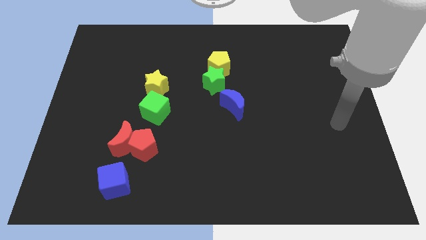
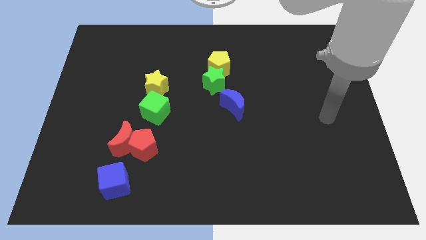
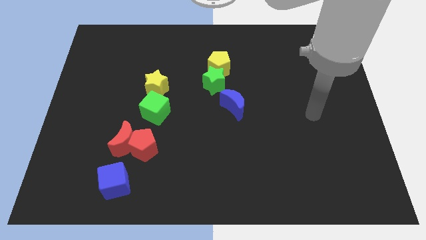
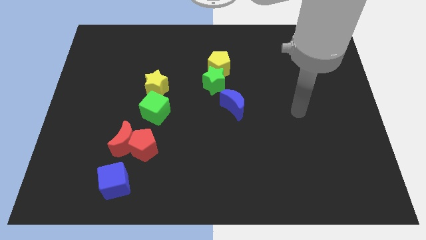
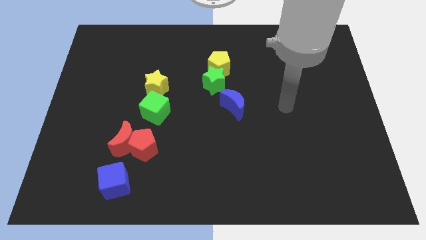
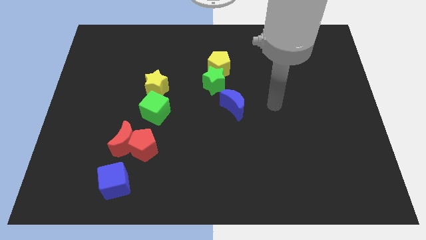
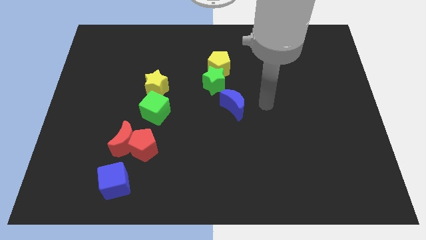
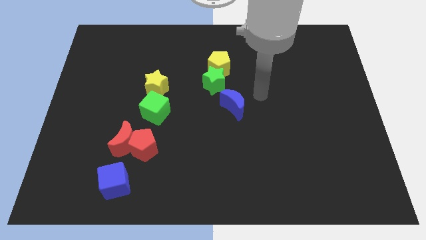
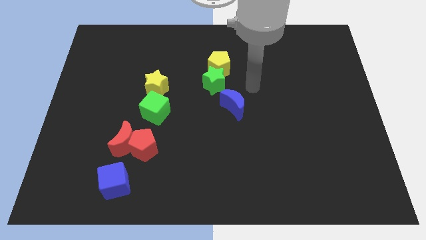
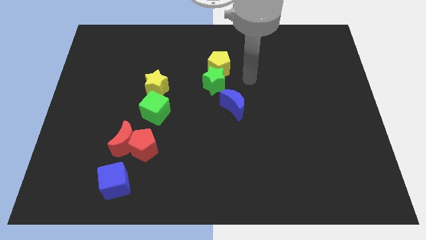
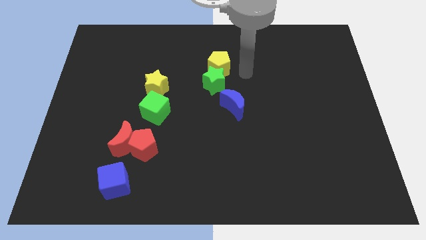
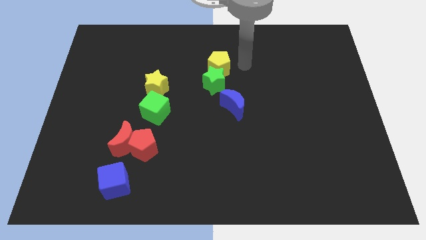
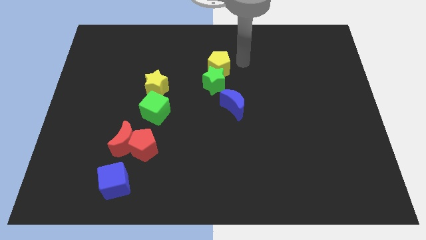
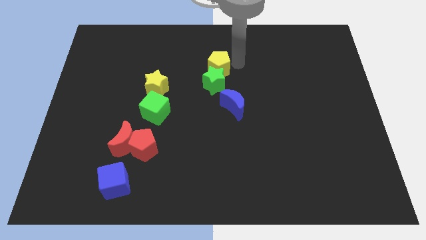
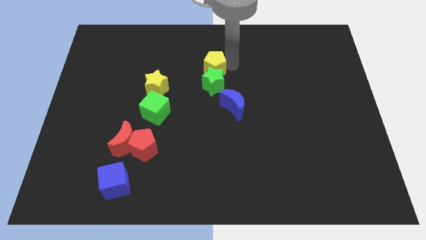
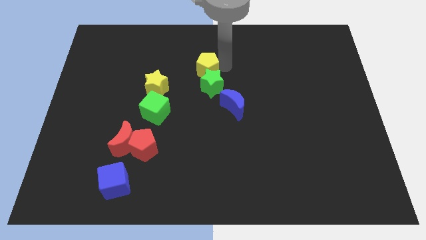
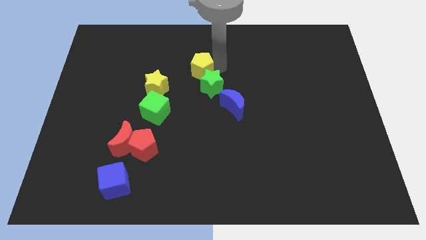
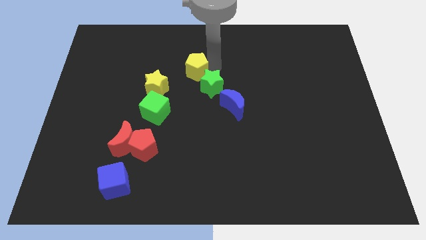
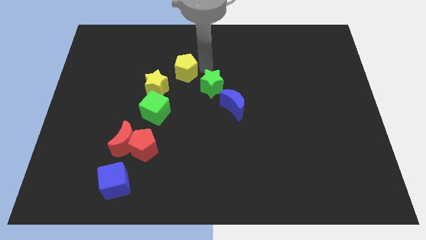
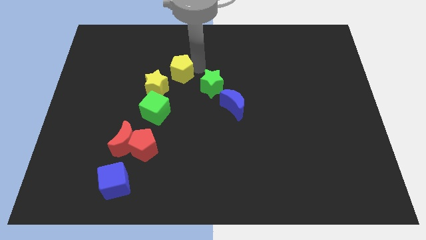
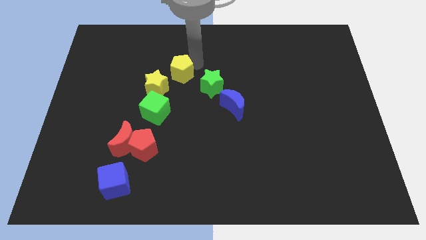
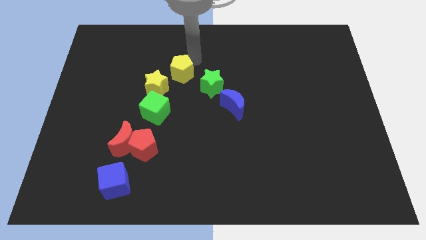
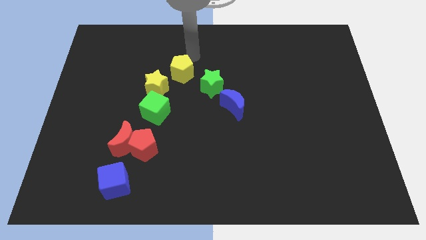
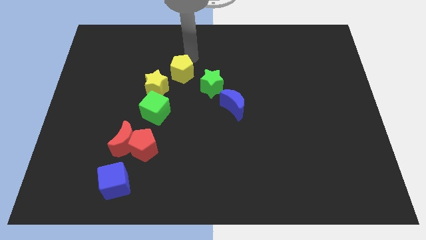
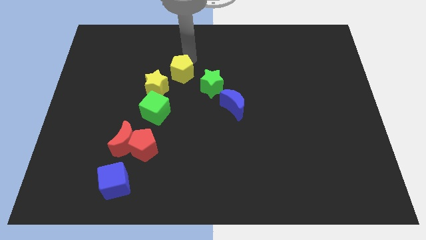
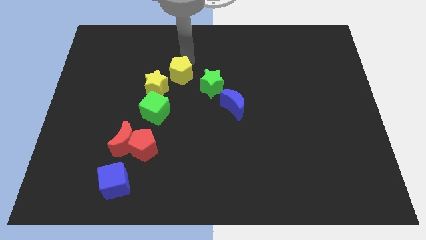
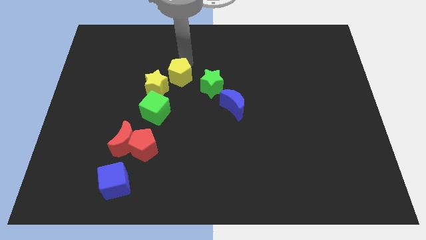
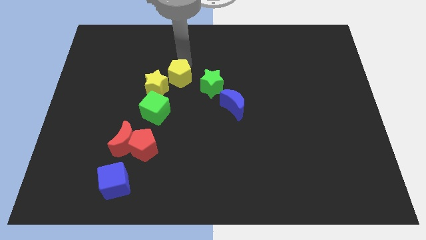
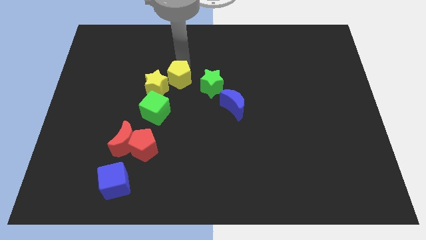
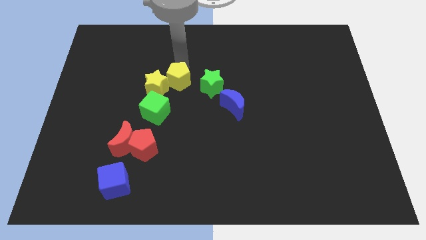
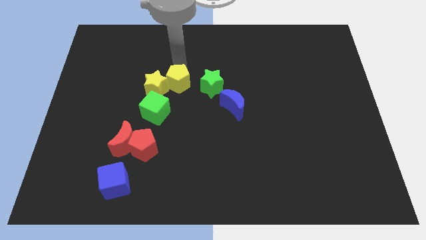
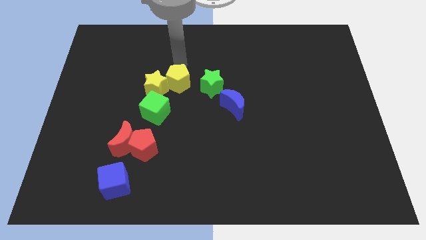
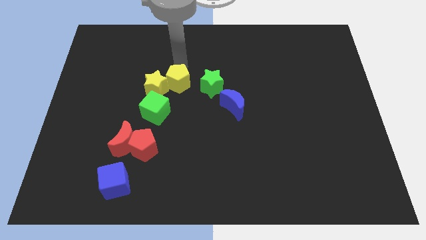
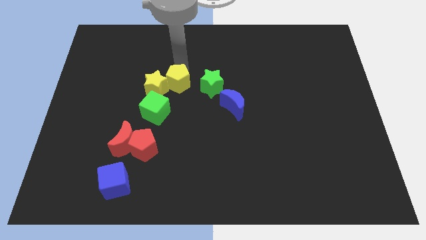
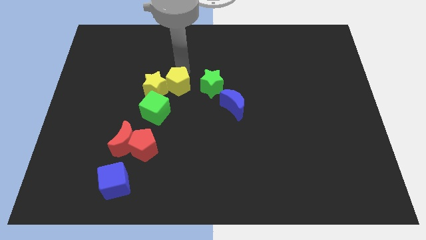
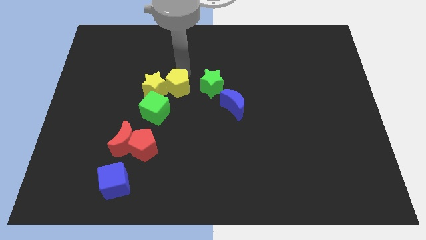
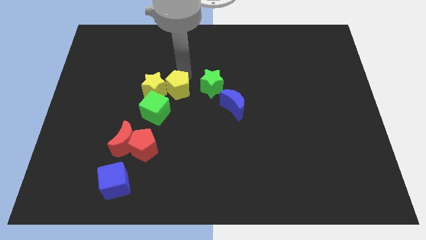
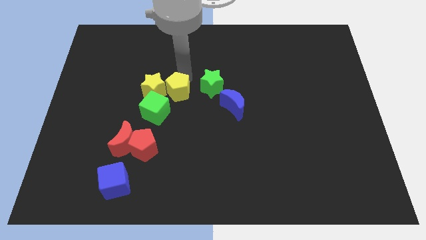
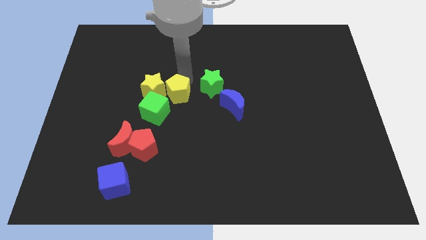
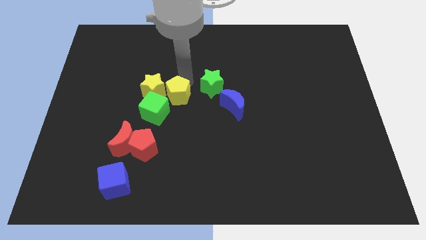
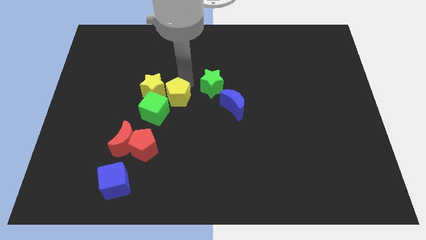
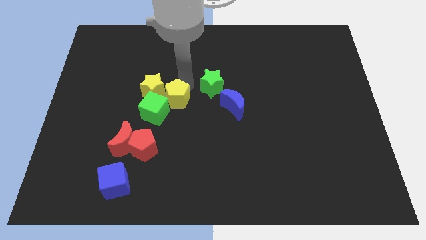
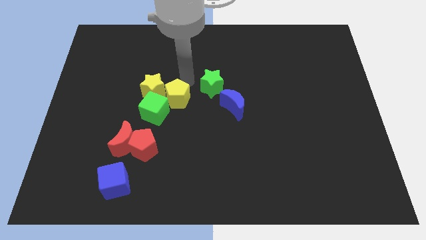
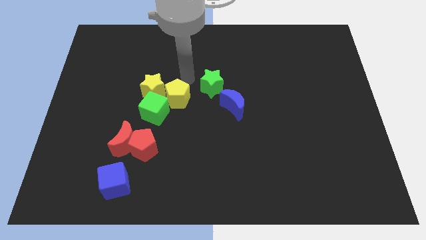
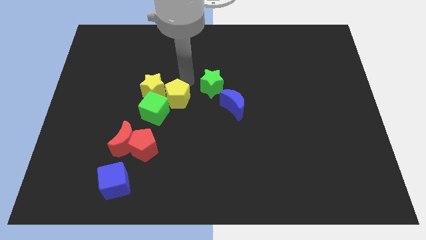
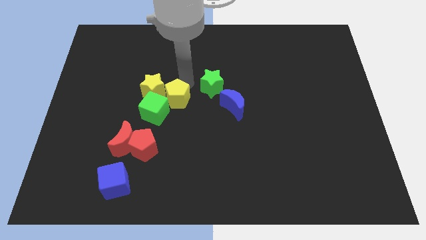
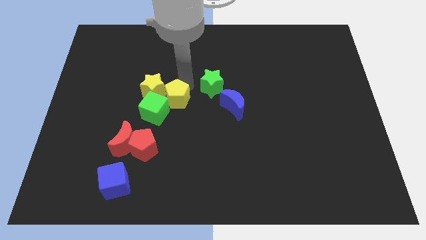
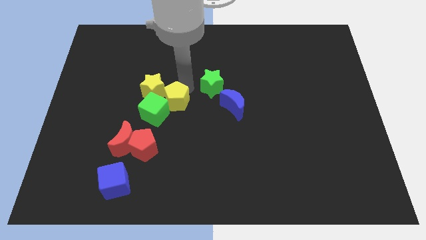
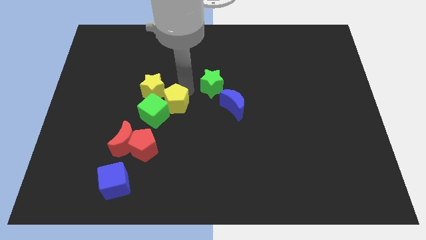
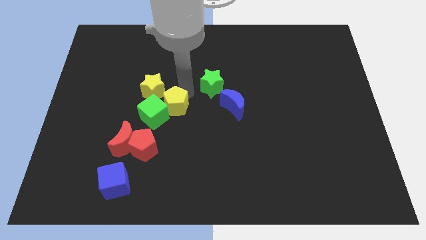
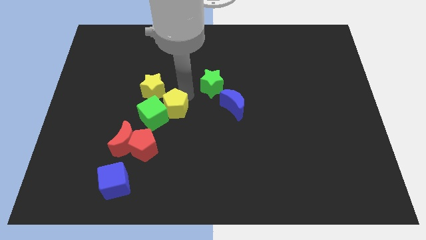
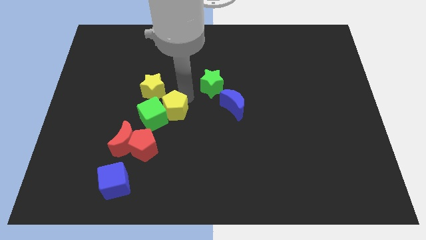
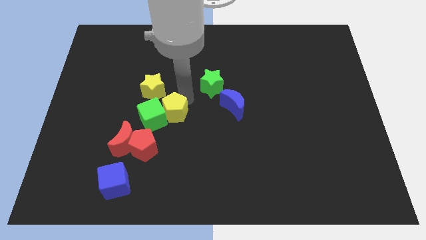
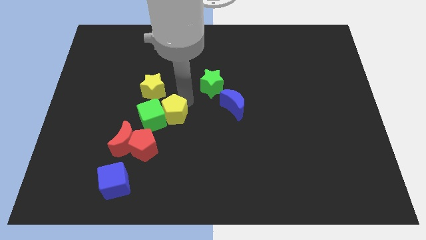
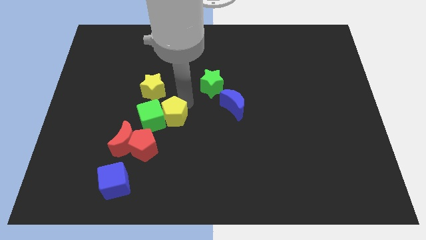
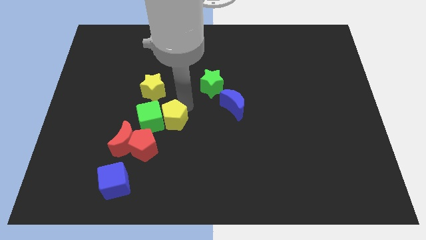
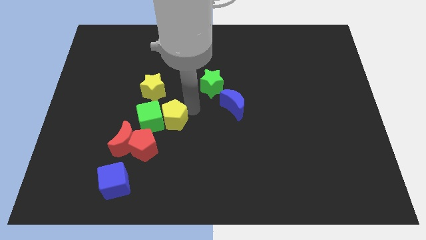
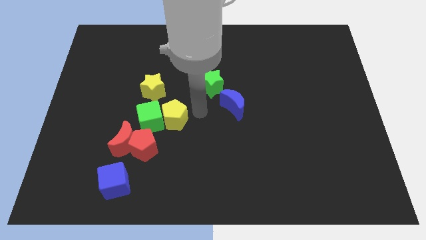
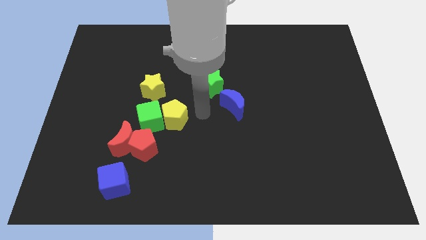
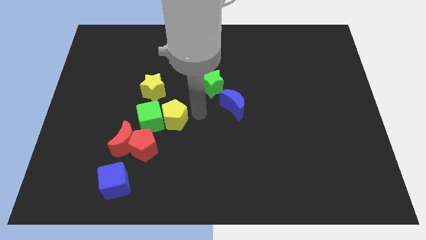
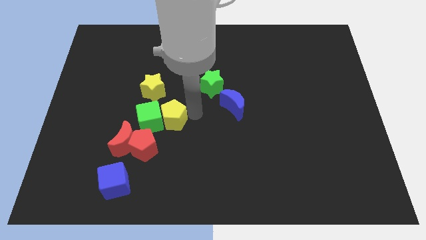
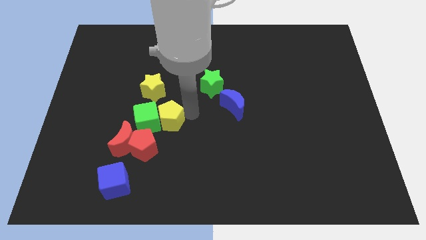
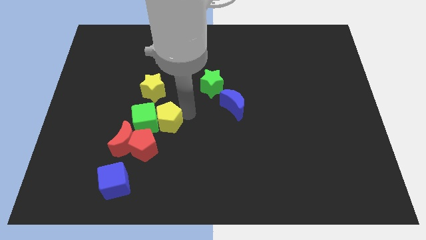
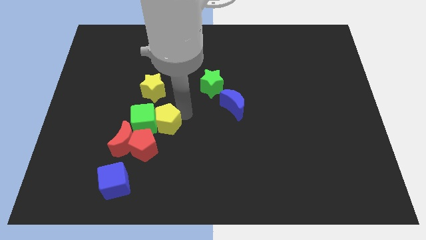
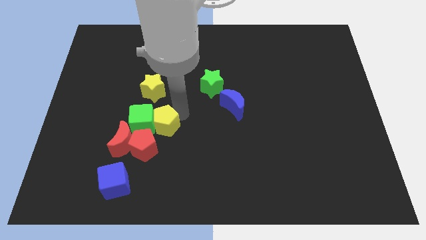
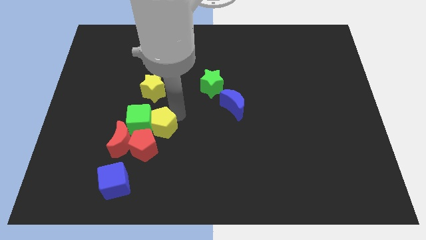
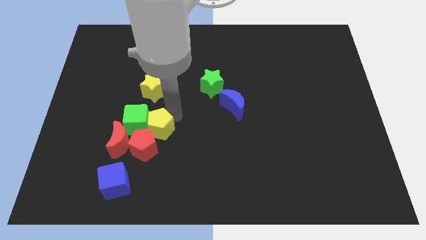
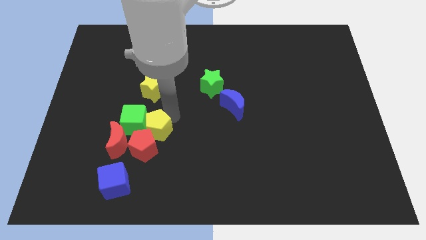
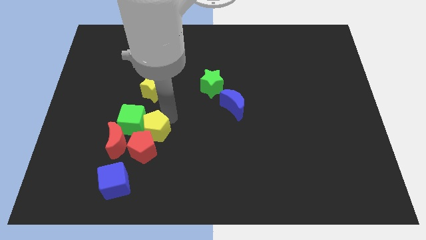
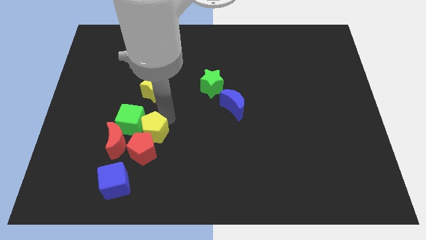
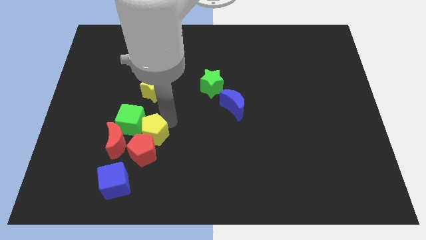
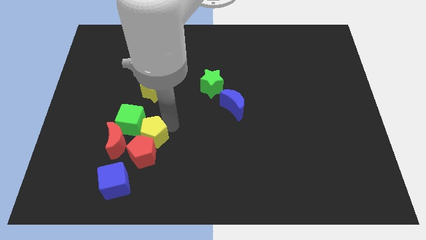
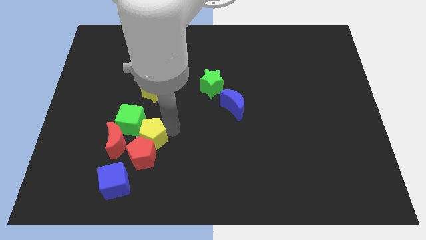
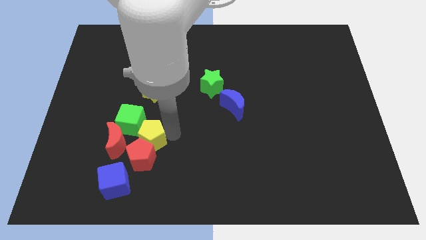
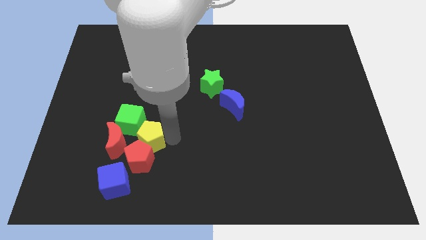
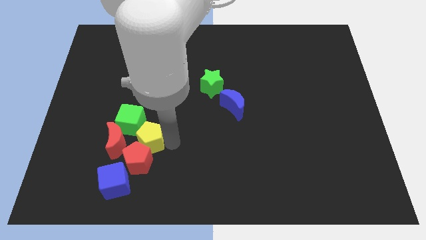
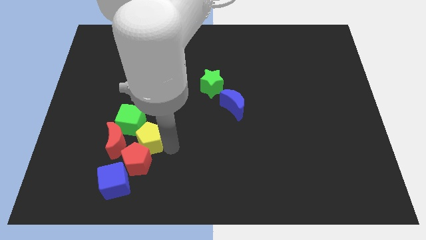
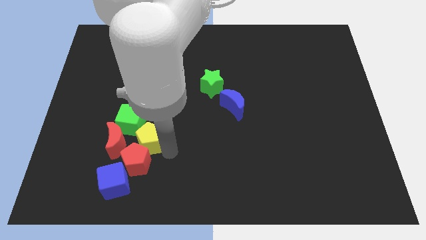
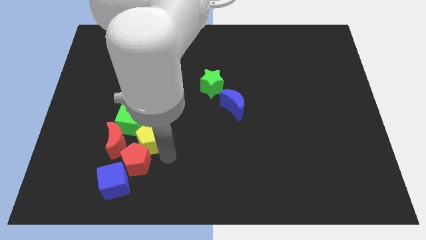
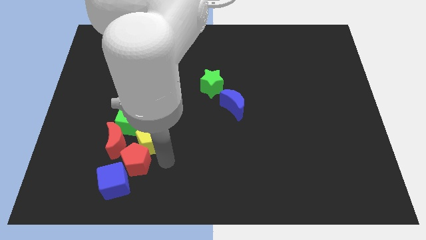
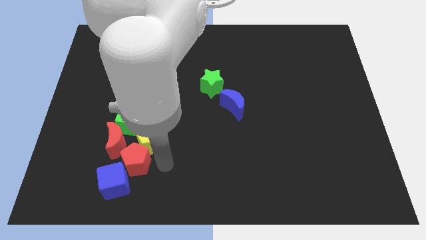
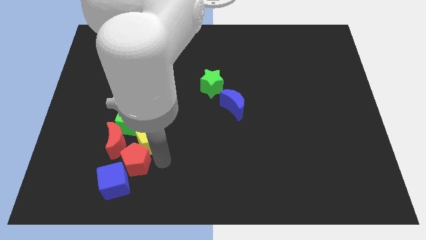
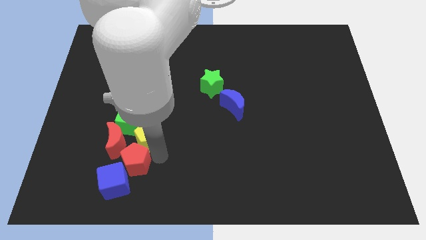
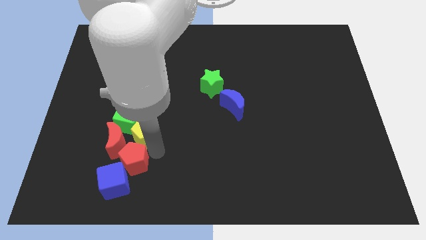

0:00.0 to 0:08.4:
move the yellow pentagon to the red moon
